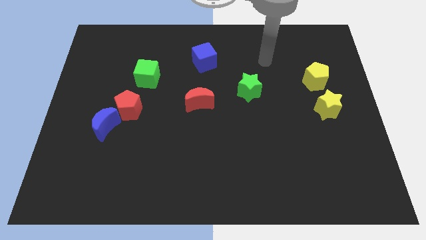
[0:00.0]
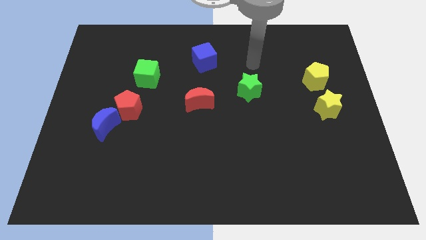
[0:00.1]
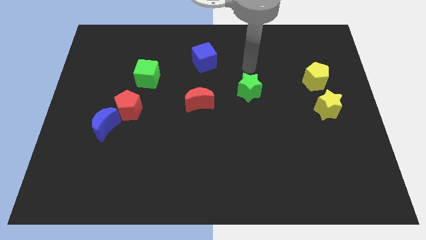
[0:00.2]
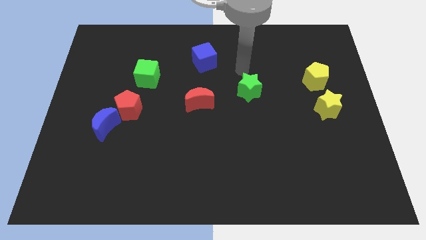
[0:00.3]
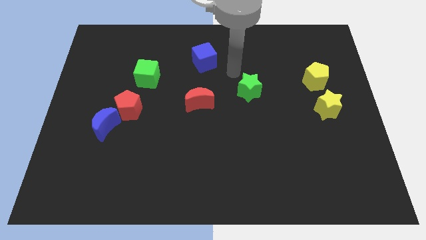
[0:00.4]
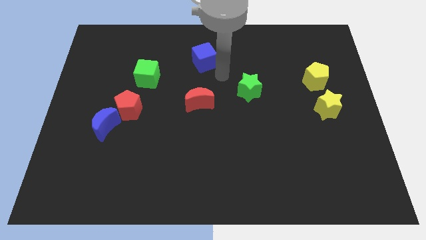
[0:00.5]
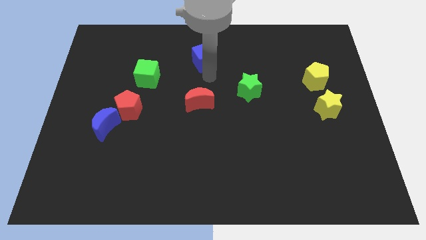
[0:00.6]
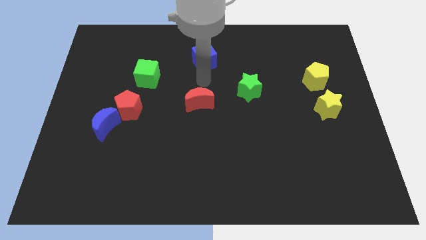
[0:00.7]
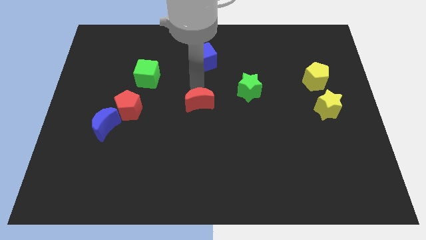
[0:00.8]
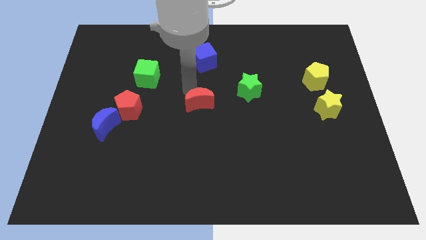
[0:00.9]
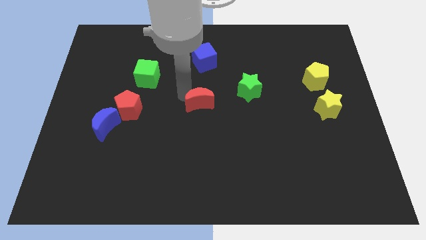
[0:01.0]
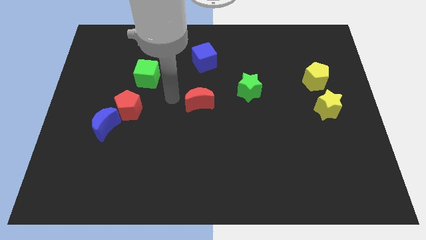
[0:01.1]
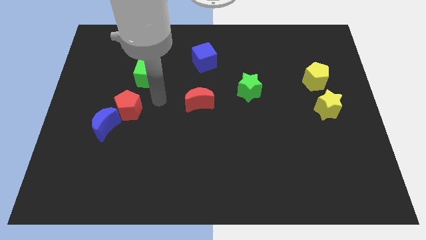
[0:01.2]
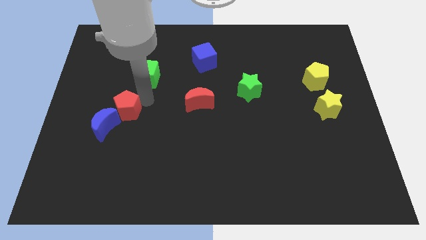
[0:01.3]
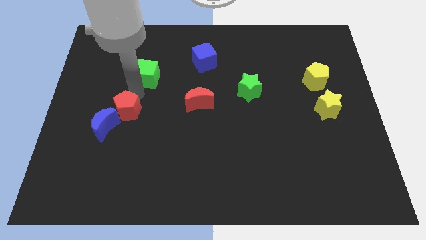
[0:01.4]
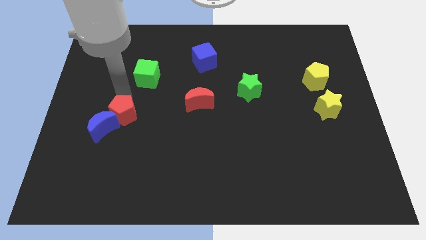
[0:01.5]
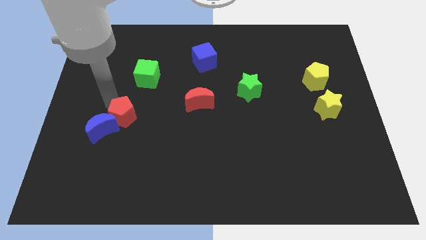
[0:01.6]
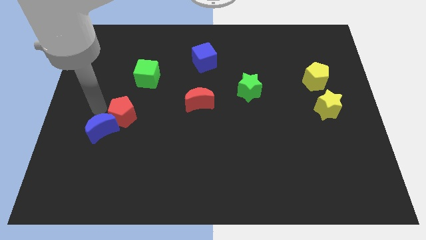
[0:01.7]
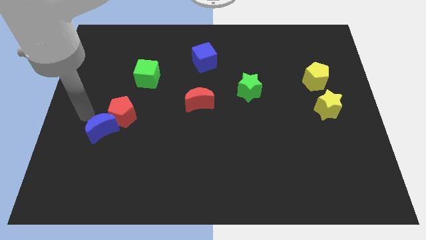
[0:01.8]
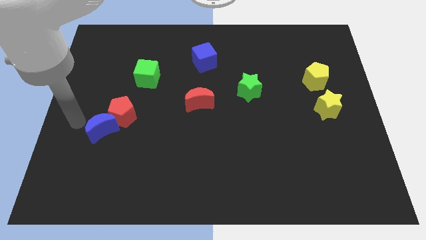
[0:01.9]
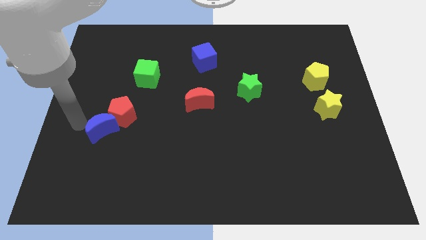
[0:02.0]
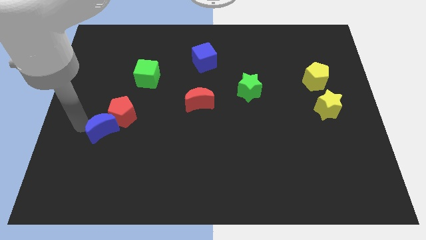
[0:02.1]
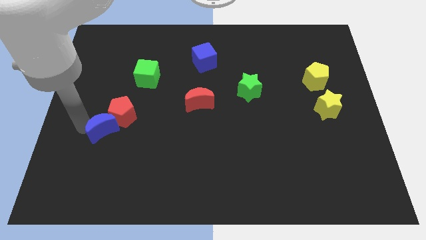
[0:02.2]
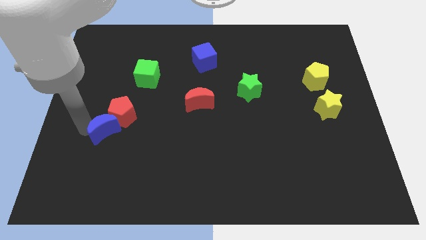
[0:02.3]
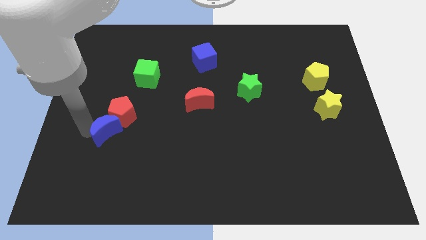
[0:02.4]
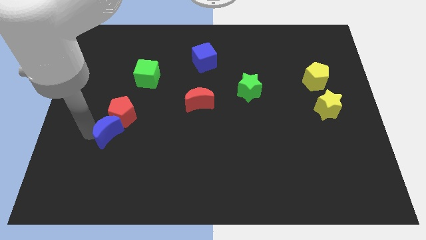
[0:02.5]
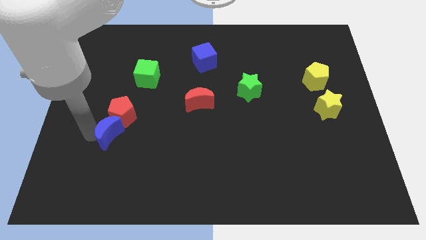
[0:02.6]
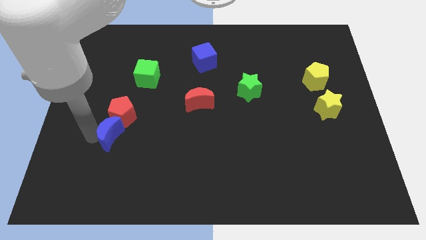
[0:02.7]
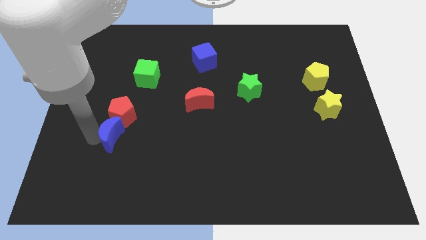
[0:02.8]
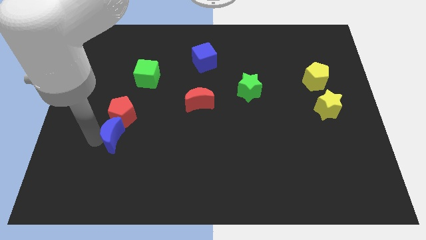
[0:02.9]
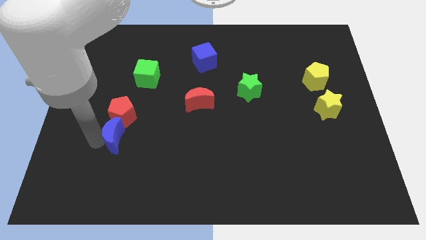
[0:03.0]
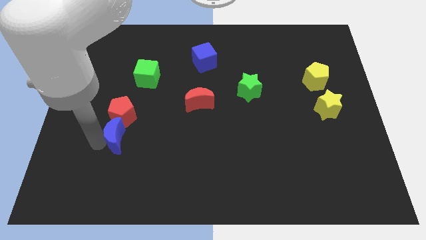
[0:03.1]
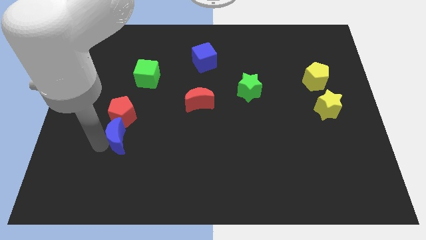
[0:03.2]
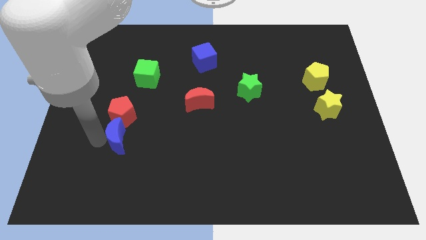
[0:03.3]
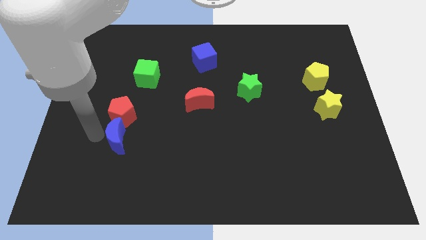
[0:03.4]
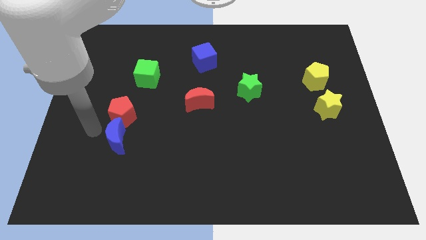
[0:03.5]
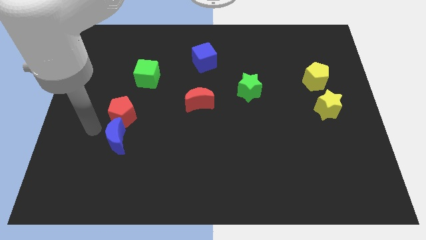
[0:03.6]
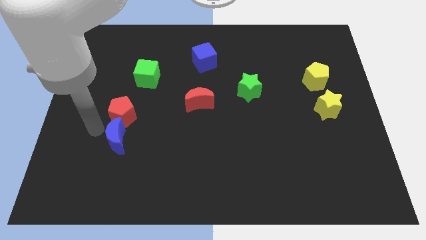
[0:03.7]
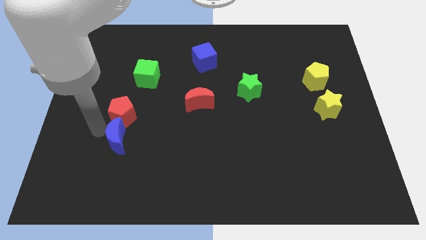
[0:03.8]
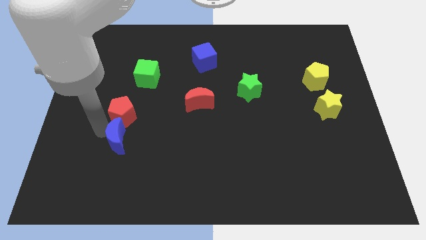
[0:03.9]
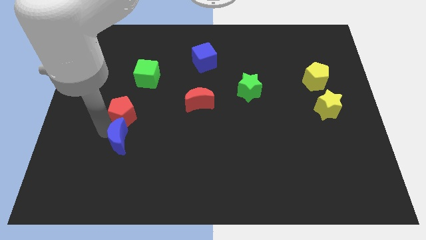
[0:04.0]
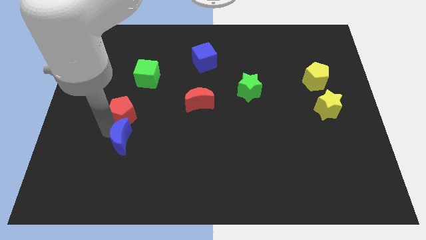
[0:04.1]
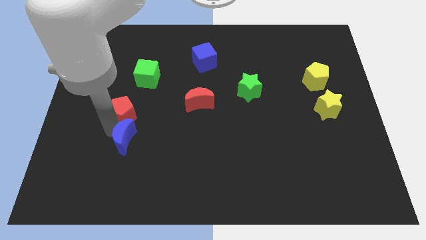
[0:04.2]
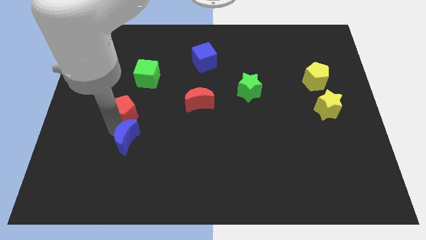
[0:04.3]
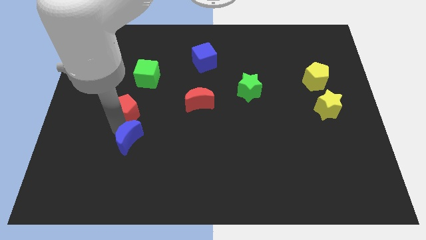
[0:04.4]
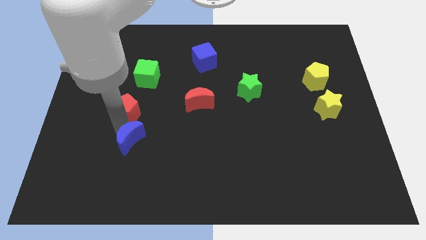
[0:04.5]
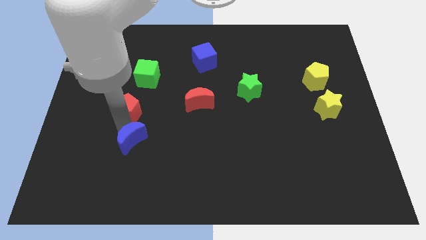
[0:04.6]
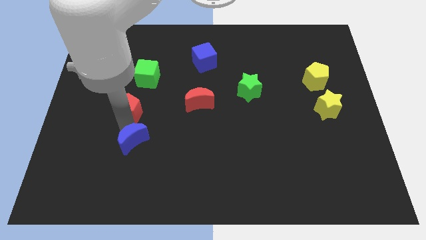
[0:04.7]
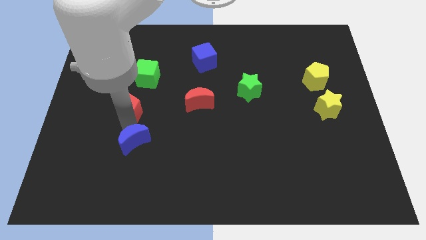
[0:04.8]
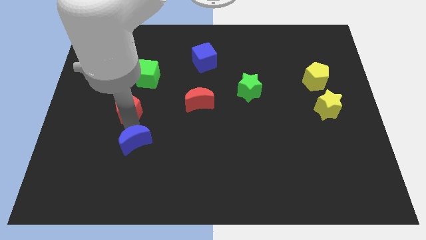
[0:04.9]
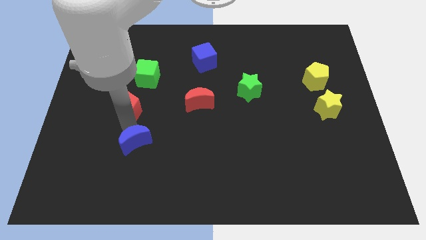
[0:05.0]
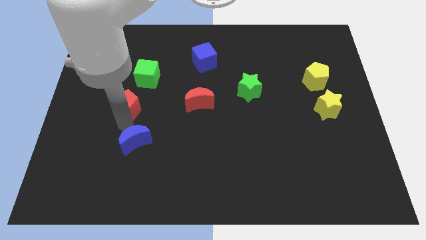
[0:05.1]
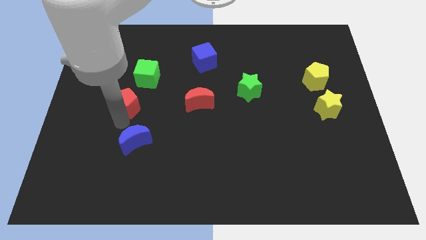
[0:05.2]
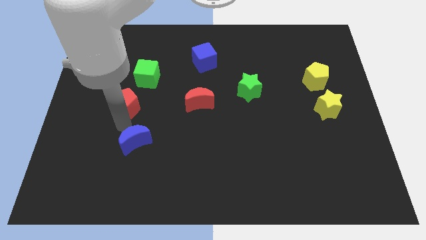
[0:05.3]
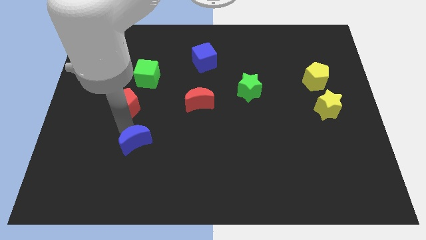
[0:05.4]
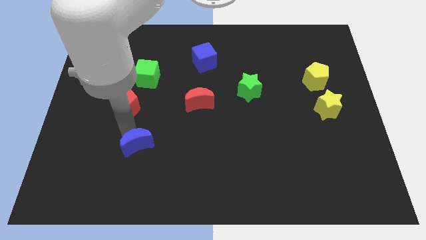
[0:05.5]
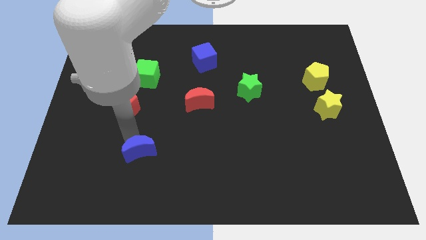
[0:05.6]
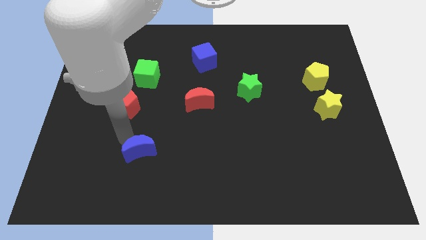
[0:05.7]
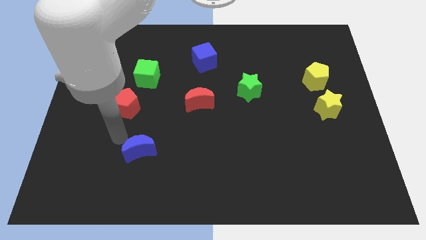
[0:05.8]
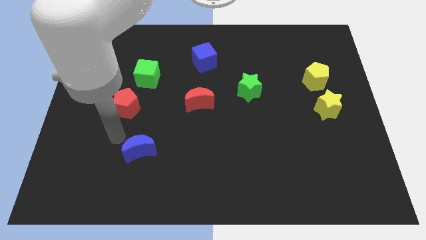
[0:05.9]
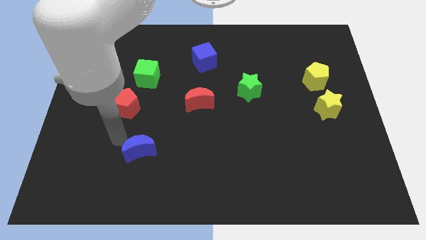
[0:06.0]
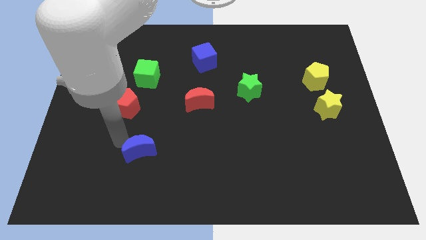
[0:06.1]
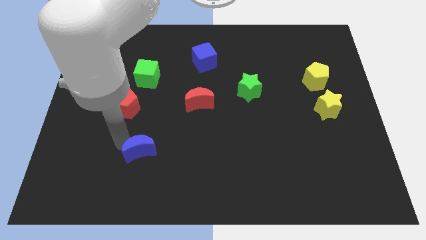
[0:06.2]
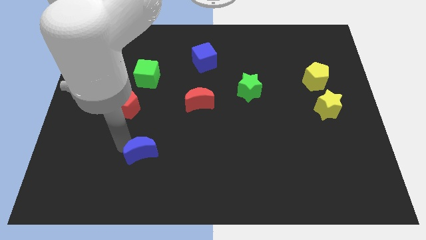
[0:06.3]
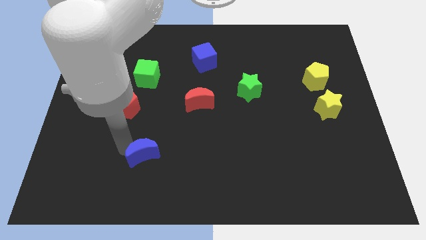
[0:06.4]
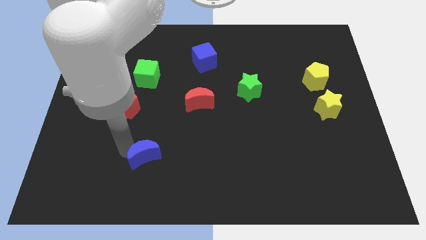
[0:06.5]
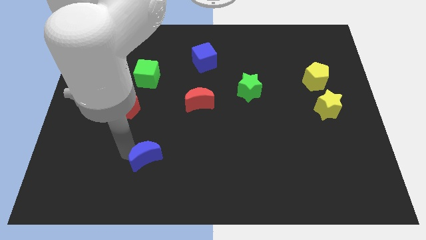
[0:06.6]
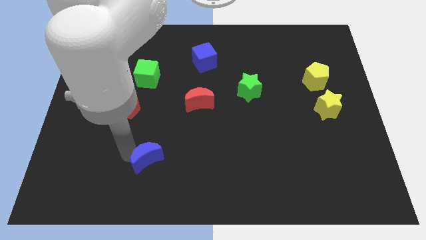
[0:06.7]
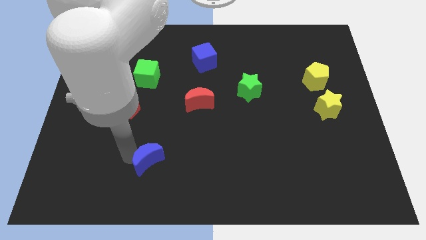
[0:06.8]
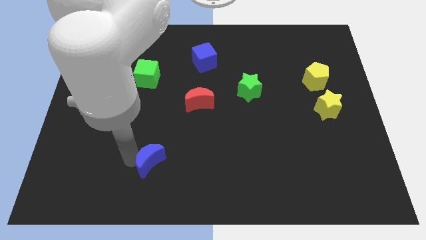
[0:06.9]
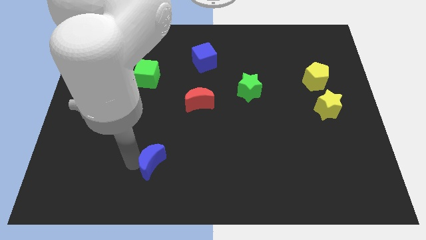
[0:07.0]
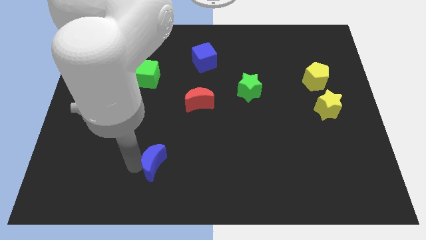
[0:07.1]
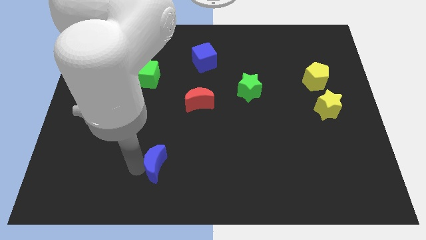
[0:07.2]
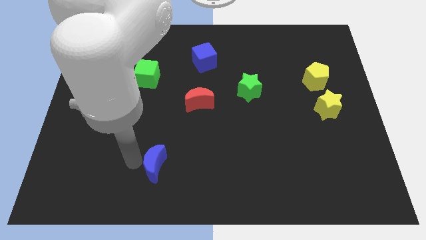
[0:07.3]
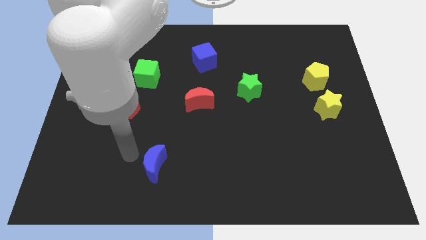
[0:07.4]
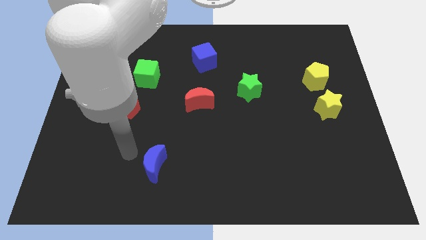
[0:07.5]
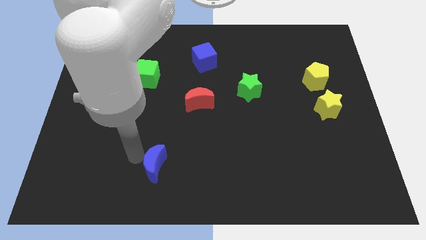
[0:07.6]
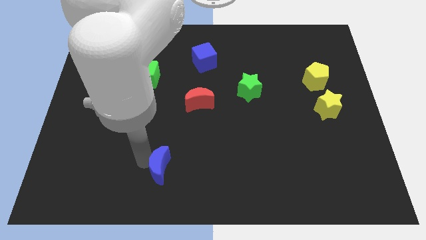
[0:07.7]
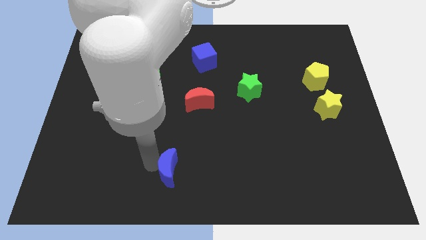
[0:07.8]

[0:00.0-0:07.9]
slide the blue moon to the bottom side
